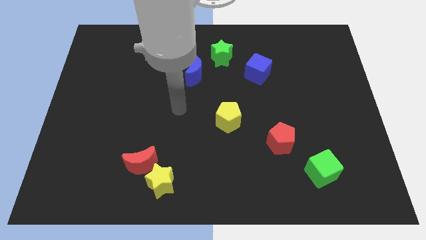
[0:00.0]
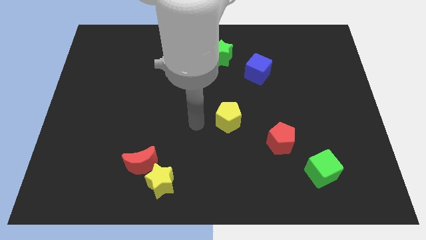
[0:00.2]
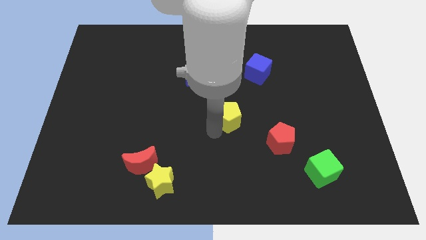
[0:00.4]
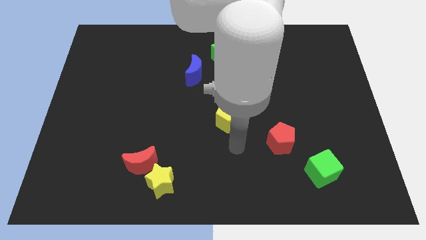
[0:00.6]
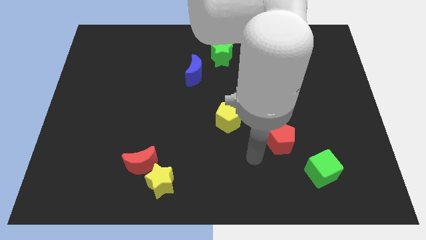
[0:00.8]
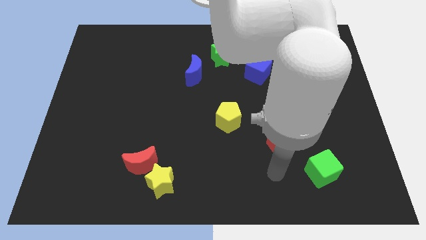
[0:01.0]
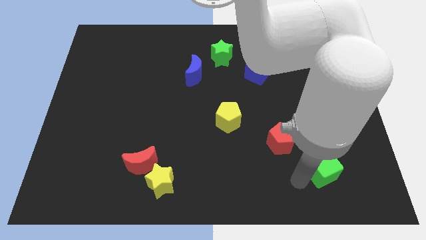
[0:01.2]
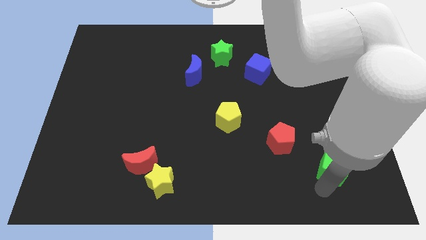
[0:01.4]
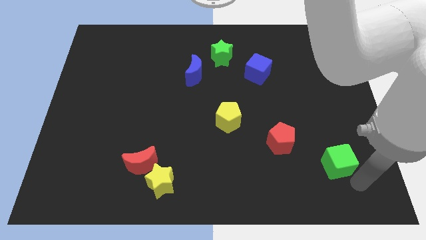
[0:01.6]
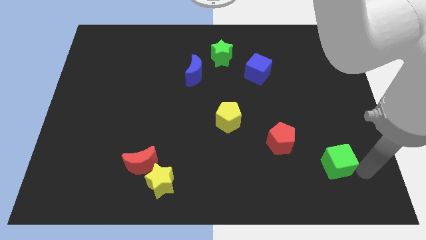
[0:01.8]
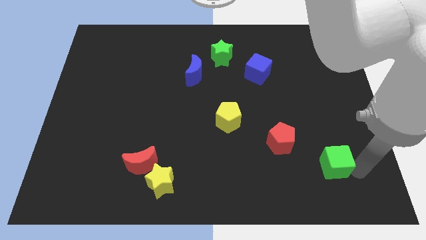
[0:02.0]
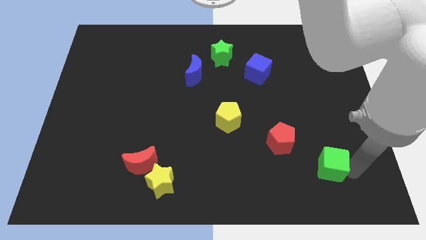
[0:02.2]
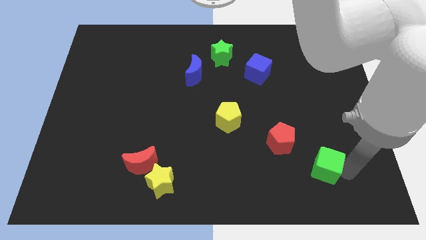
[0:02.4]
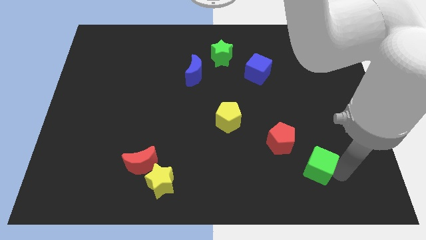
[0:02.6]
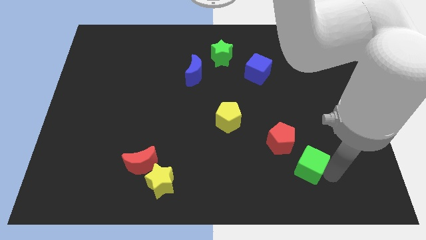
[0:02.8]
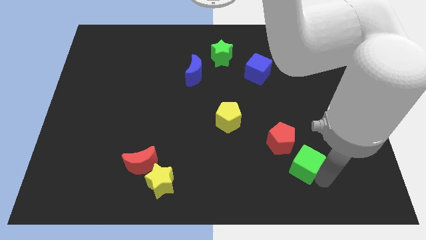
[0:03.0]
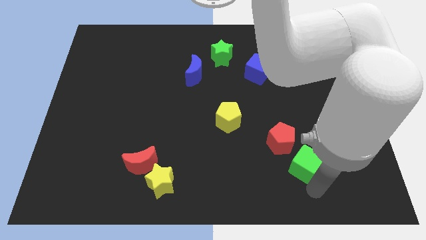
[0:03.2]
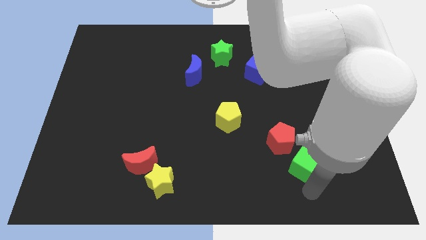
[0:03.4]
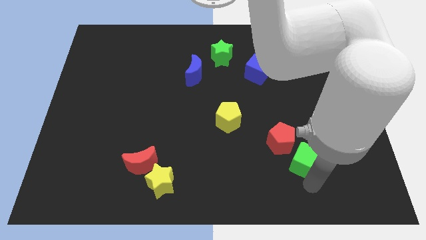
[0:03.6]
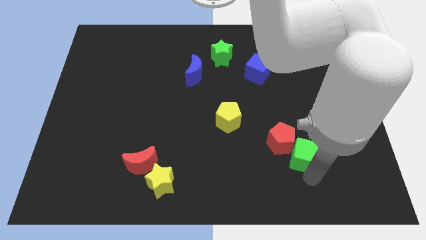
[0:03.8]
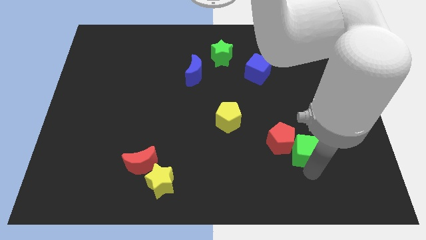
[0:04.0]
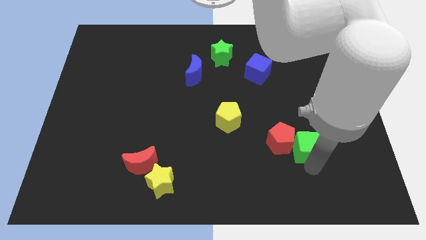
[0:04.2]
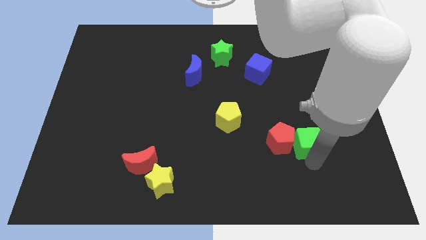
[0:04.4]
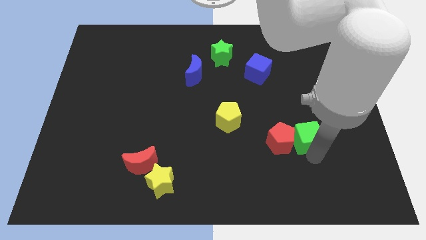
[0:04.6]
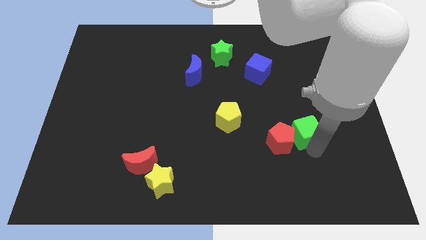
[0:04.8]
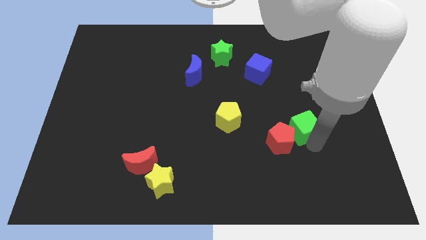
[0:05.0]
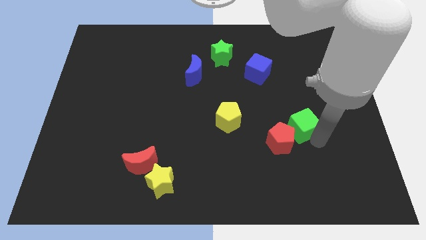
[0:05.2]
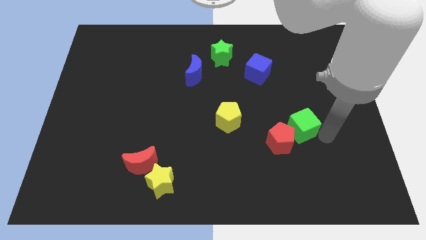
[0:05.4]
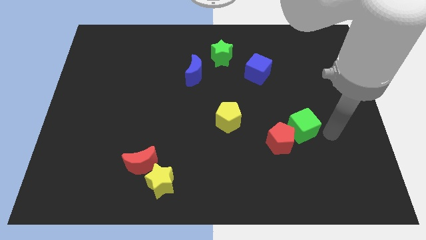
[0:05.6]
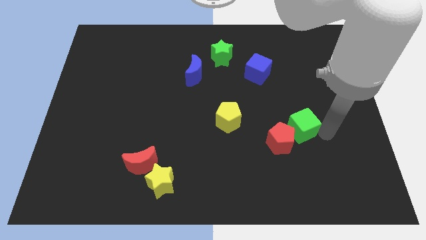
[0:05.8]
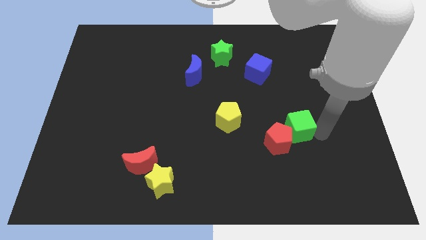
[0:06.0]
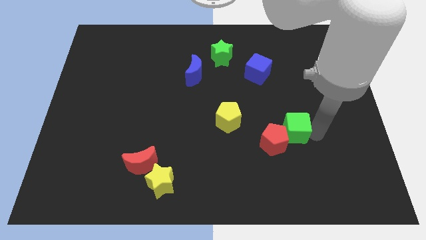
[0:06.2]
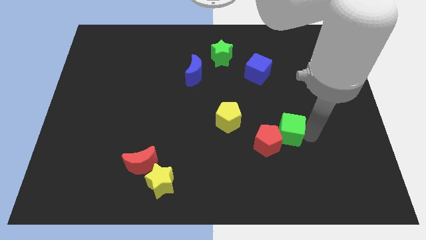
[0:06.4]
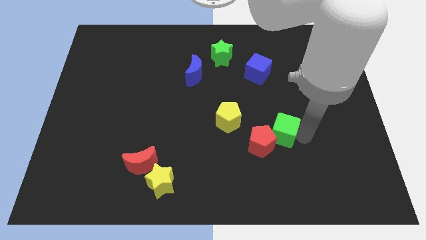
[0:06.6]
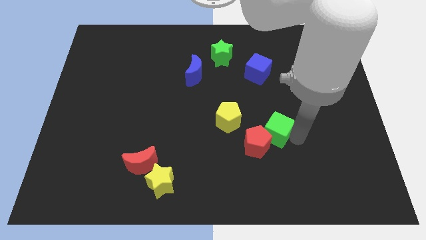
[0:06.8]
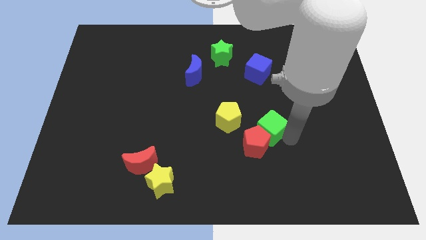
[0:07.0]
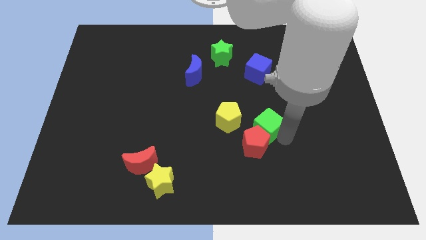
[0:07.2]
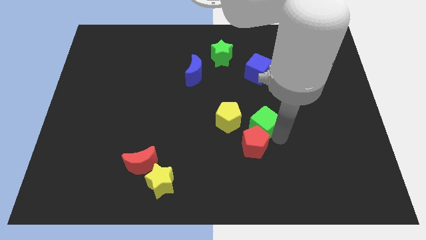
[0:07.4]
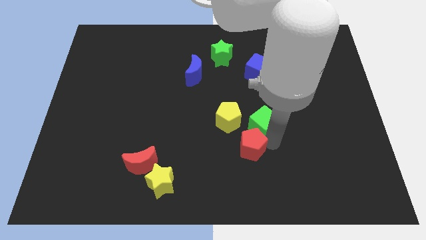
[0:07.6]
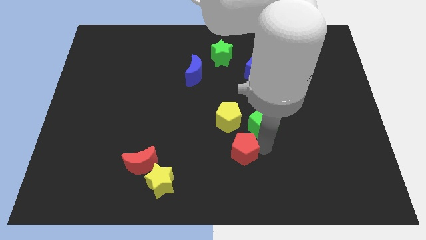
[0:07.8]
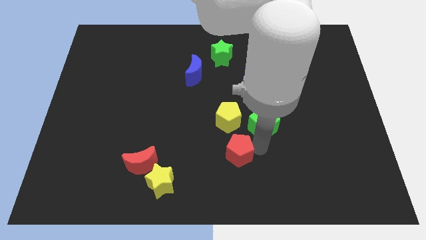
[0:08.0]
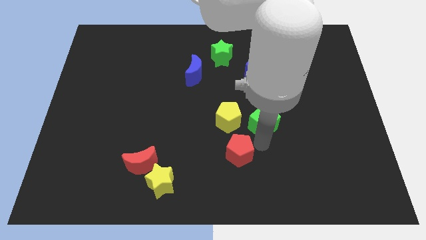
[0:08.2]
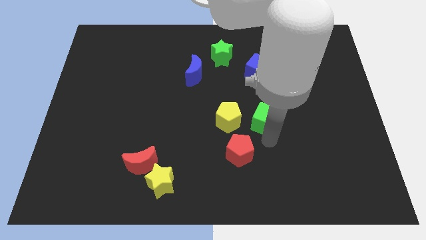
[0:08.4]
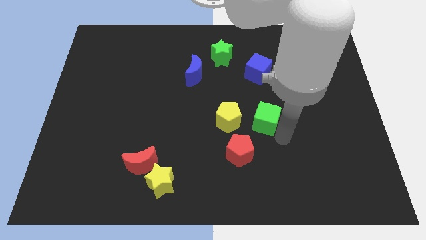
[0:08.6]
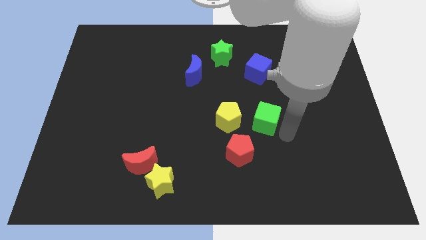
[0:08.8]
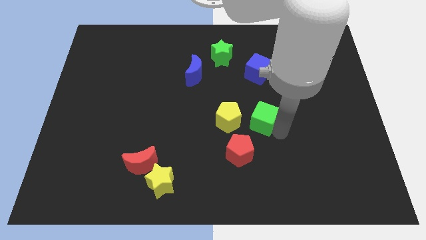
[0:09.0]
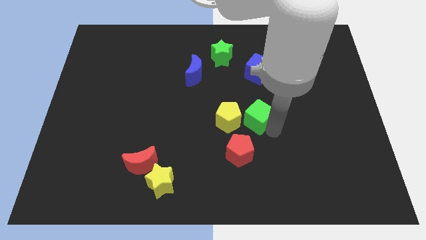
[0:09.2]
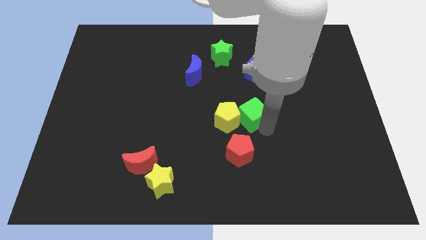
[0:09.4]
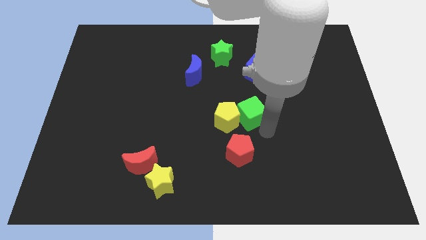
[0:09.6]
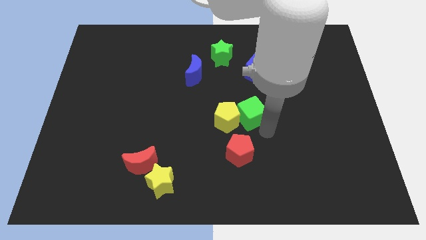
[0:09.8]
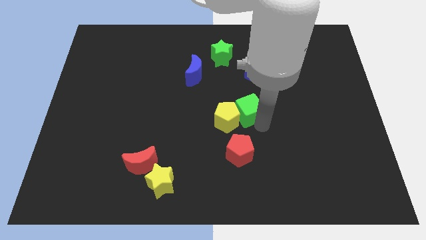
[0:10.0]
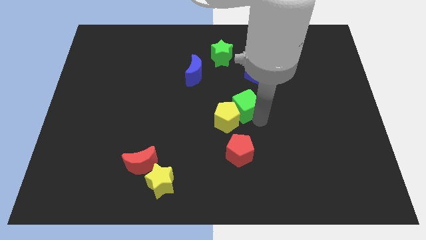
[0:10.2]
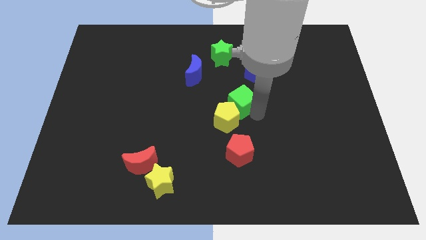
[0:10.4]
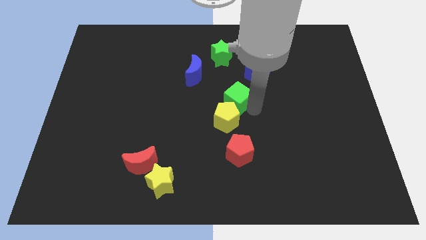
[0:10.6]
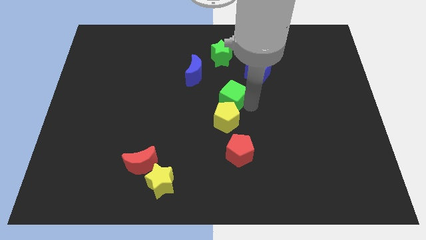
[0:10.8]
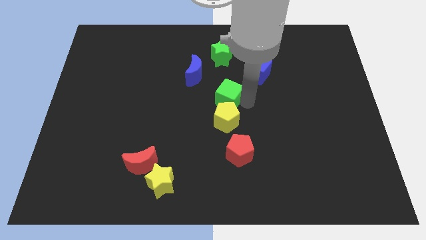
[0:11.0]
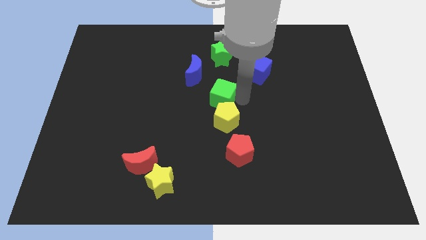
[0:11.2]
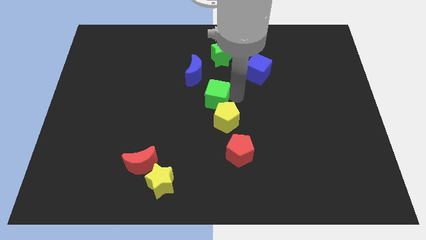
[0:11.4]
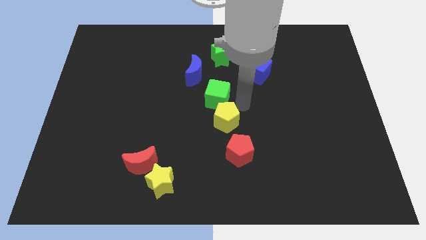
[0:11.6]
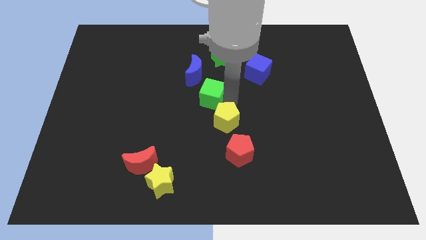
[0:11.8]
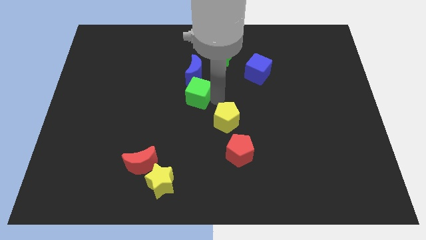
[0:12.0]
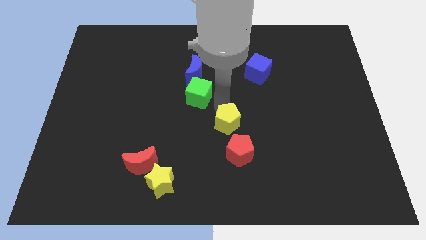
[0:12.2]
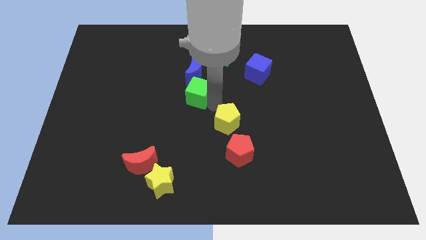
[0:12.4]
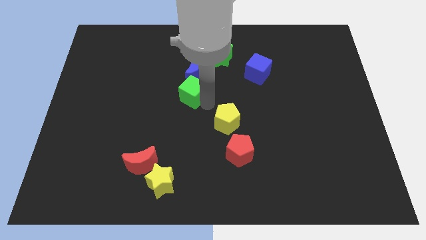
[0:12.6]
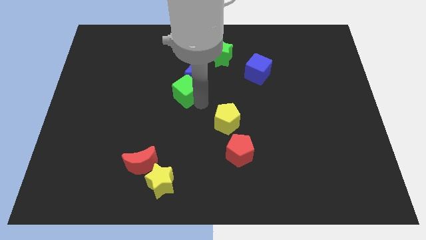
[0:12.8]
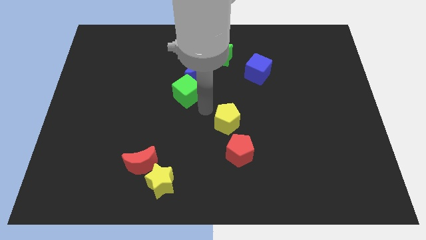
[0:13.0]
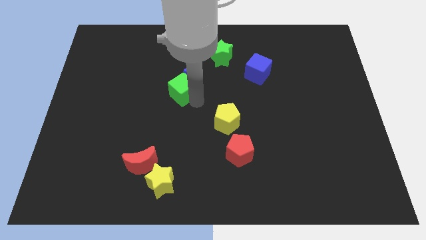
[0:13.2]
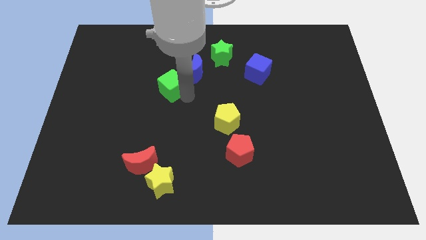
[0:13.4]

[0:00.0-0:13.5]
push the green cube to the left side of the blue moon
